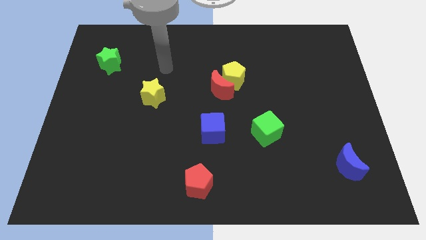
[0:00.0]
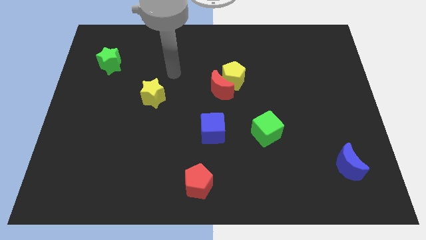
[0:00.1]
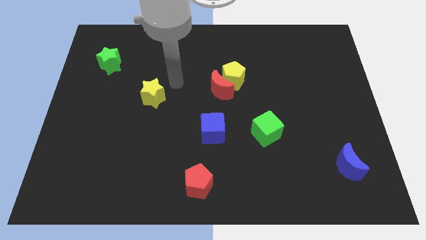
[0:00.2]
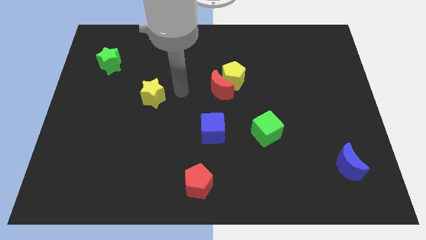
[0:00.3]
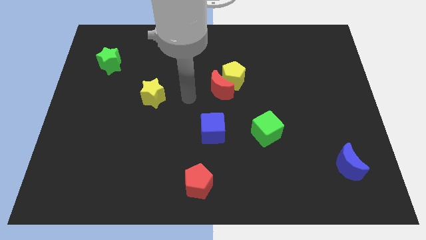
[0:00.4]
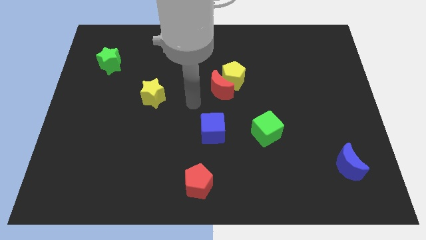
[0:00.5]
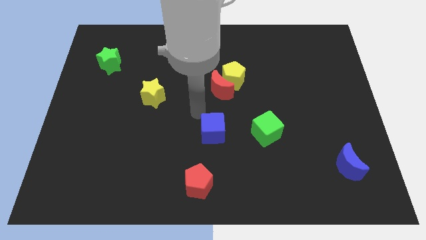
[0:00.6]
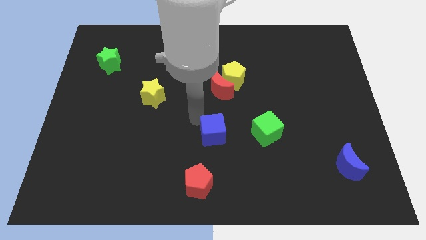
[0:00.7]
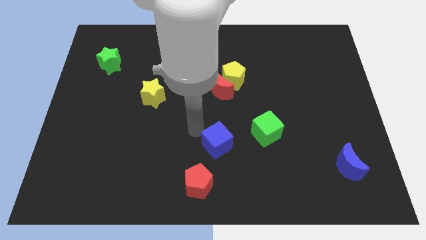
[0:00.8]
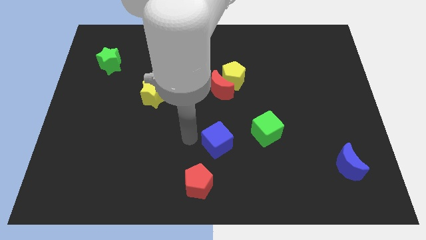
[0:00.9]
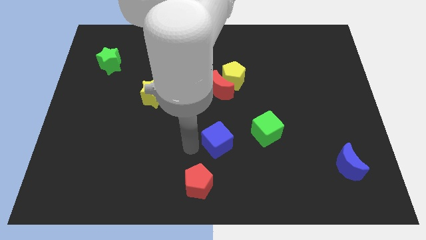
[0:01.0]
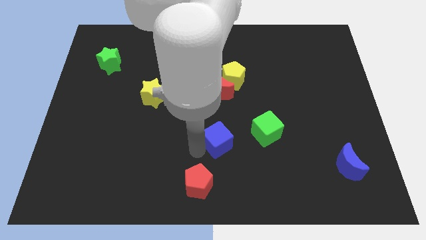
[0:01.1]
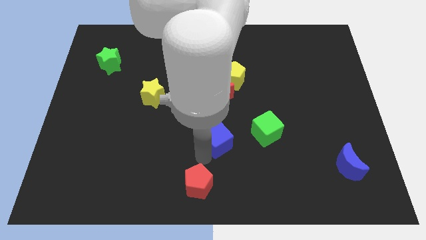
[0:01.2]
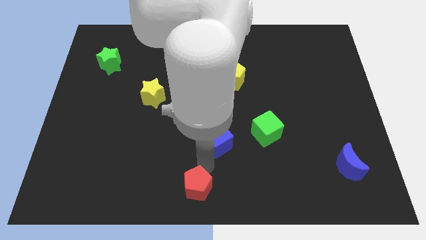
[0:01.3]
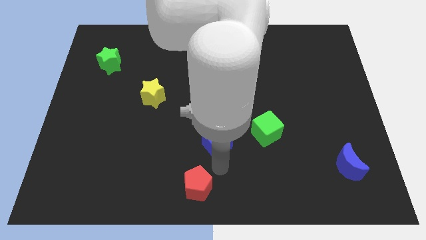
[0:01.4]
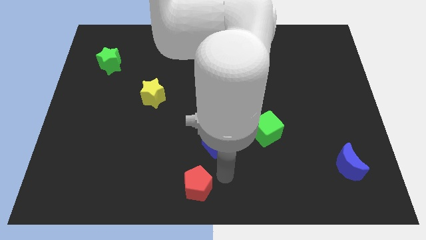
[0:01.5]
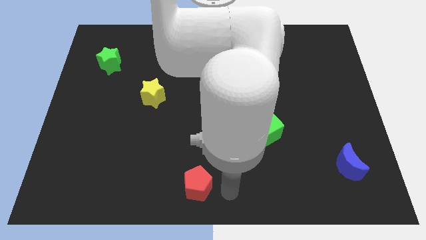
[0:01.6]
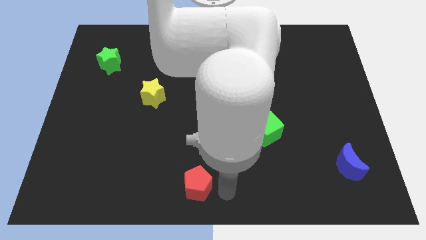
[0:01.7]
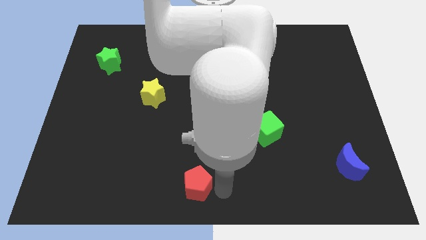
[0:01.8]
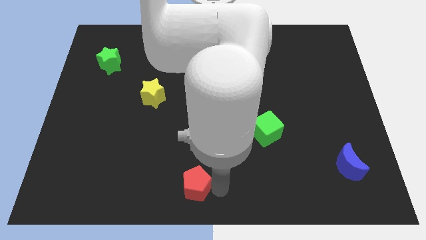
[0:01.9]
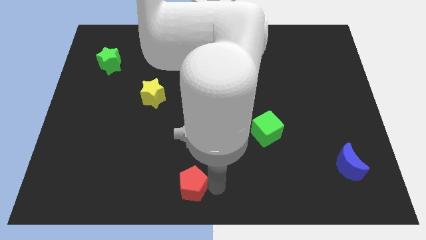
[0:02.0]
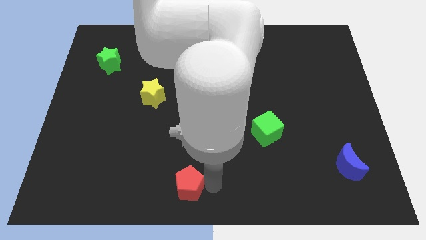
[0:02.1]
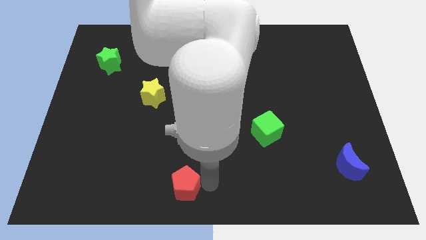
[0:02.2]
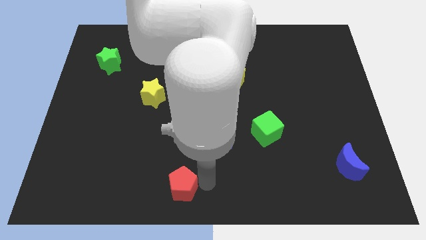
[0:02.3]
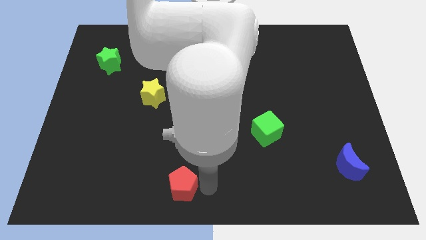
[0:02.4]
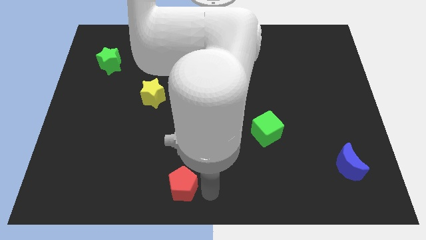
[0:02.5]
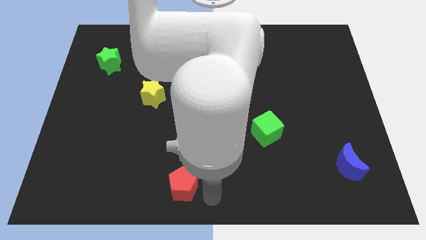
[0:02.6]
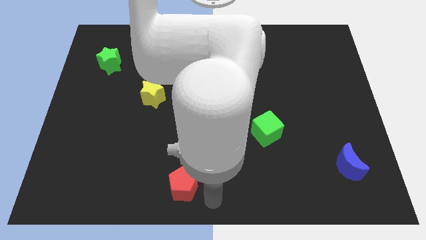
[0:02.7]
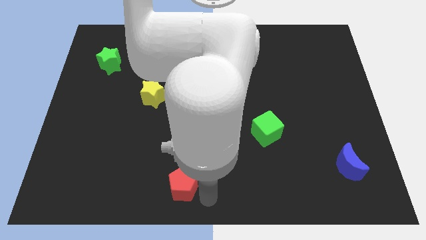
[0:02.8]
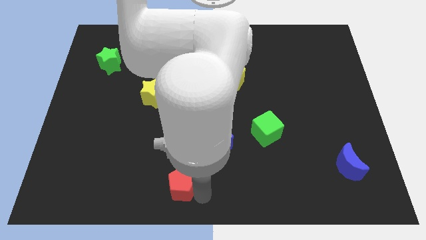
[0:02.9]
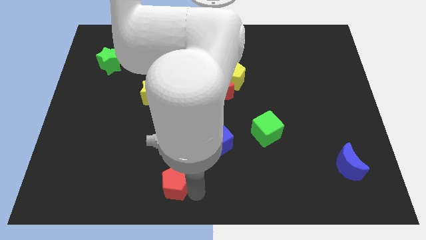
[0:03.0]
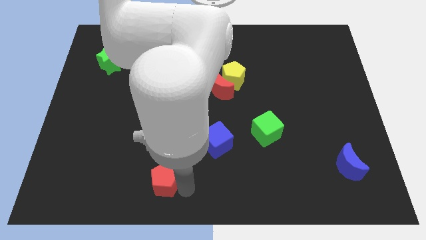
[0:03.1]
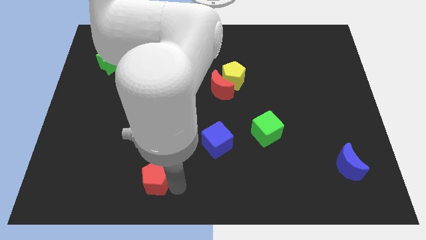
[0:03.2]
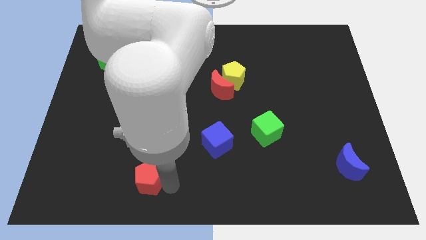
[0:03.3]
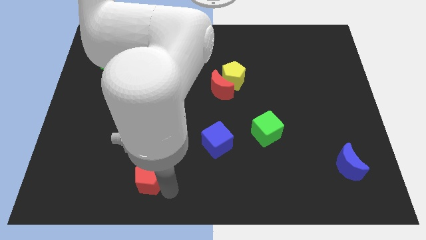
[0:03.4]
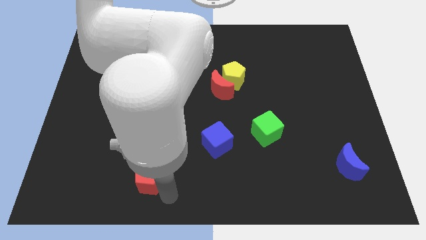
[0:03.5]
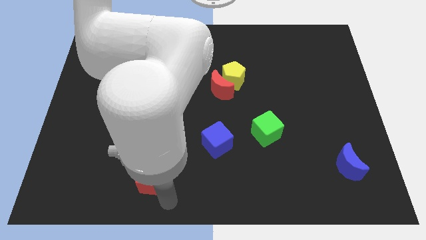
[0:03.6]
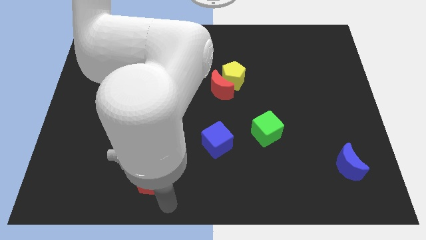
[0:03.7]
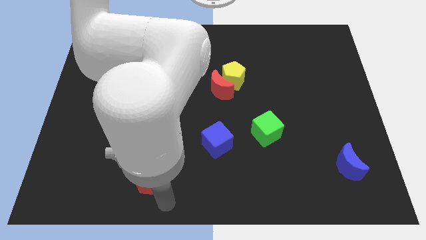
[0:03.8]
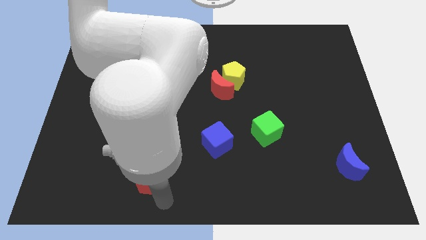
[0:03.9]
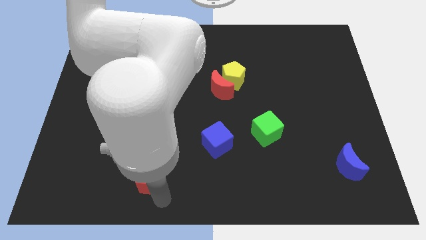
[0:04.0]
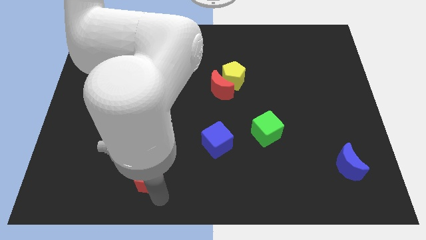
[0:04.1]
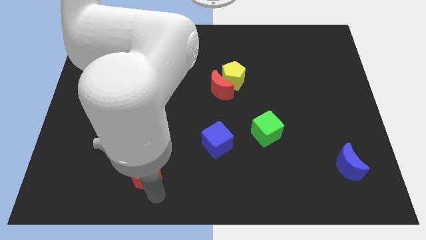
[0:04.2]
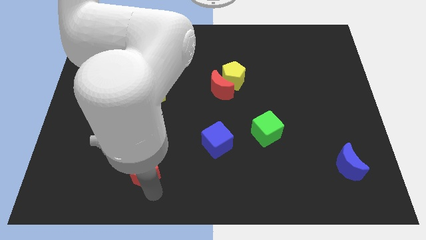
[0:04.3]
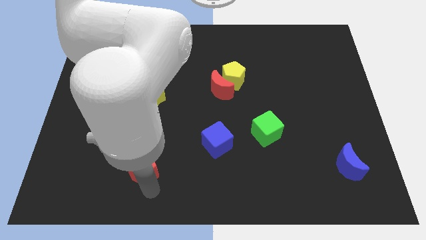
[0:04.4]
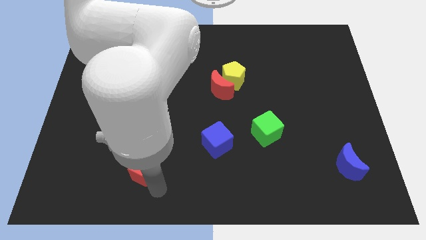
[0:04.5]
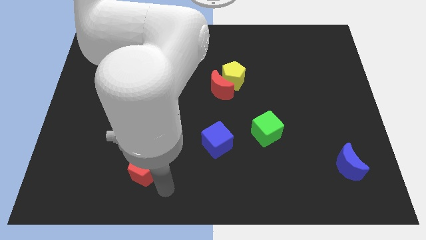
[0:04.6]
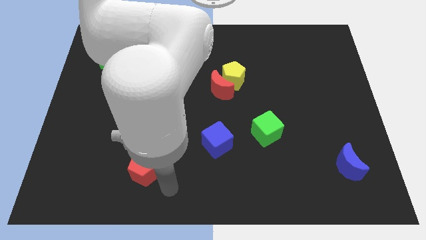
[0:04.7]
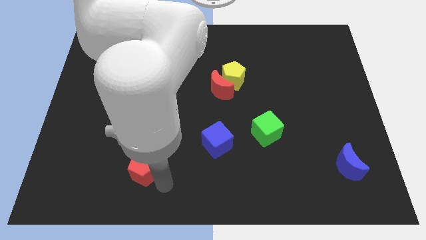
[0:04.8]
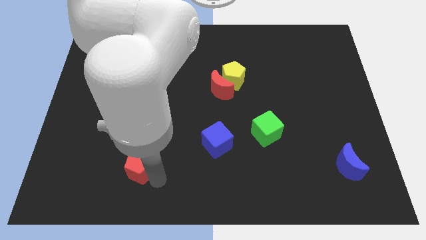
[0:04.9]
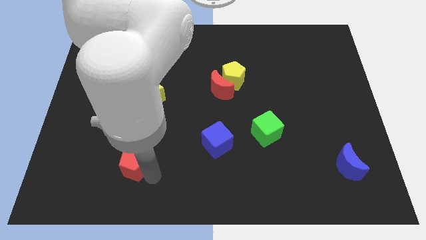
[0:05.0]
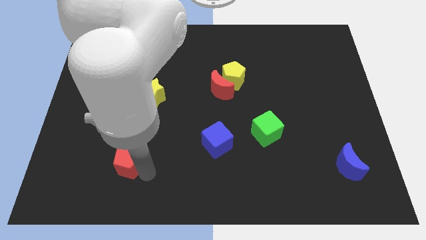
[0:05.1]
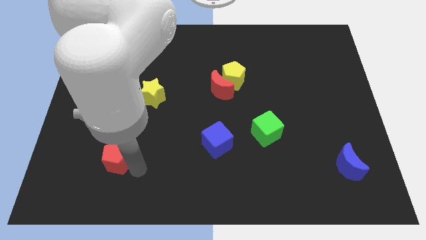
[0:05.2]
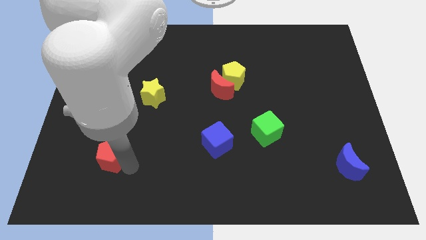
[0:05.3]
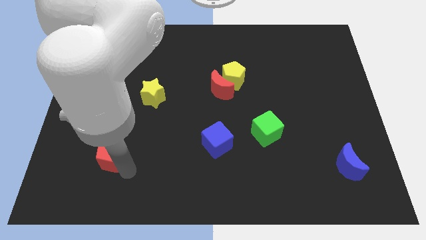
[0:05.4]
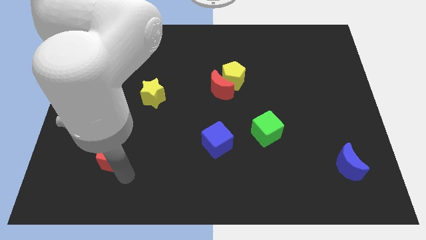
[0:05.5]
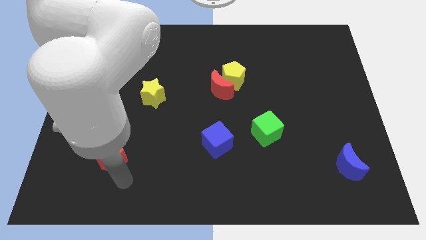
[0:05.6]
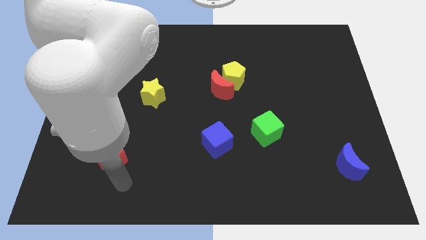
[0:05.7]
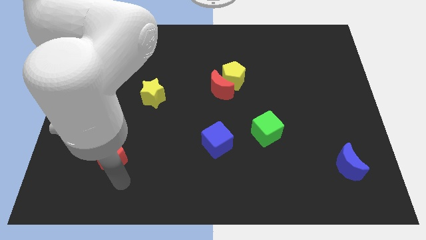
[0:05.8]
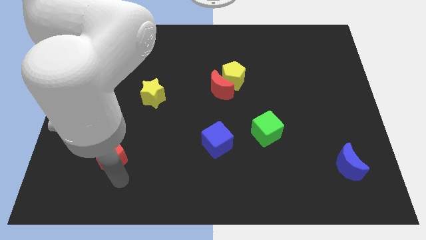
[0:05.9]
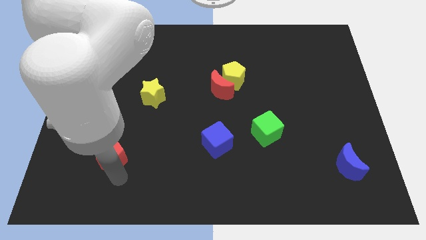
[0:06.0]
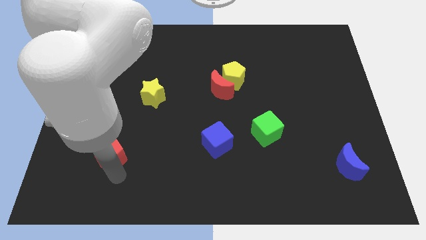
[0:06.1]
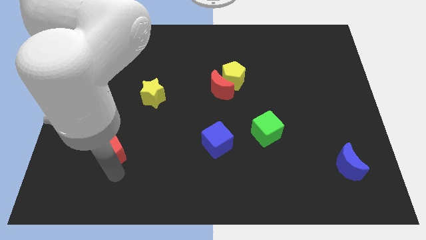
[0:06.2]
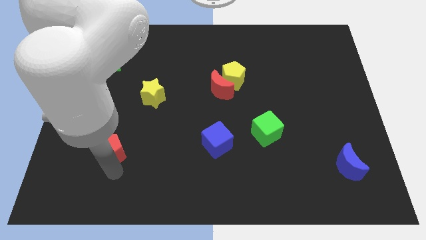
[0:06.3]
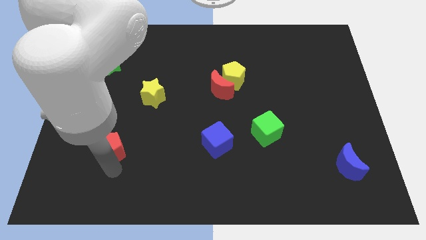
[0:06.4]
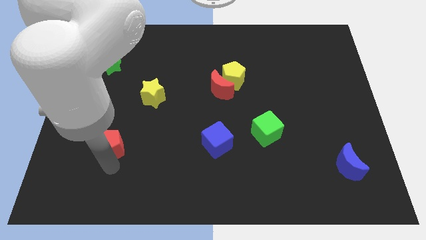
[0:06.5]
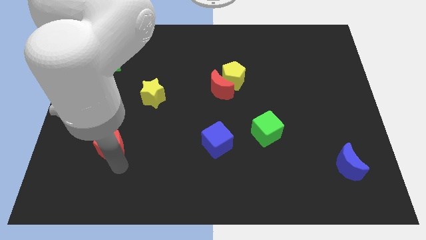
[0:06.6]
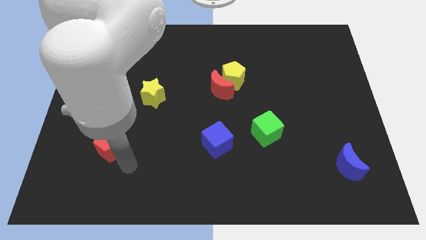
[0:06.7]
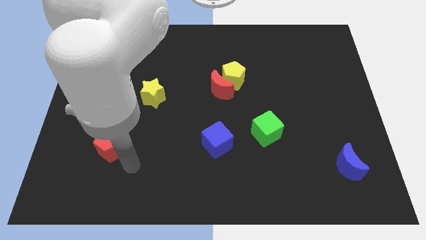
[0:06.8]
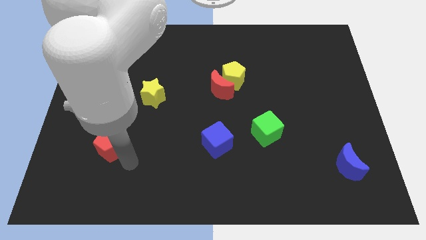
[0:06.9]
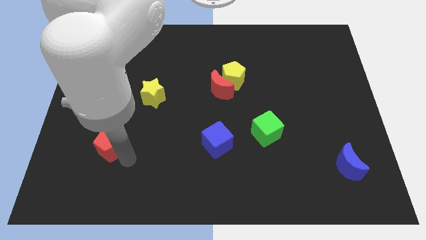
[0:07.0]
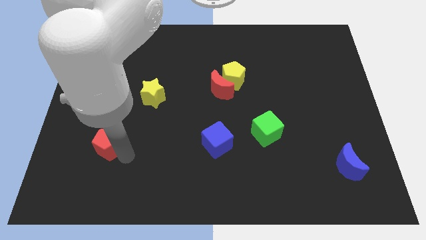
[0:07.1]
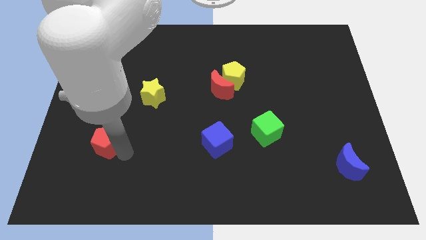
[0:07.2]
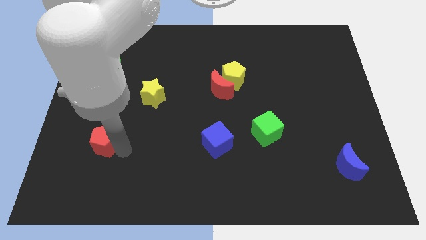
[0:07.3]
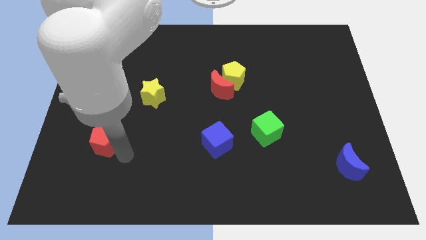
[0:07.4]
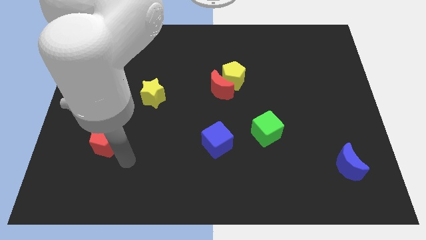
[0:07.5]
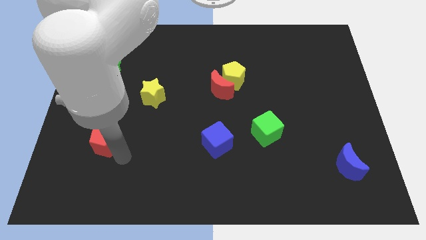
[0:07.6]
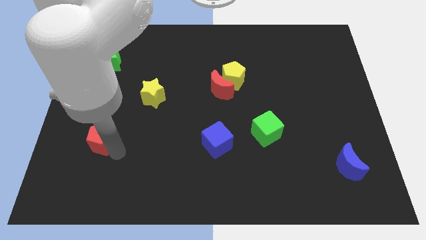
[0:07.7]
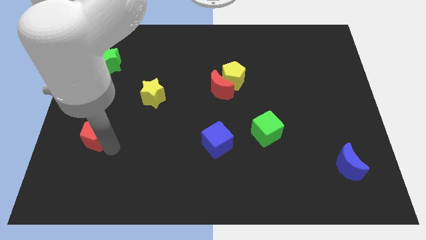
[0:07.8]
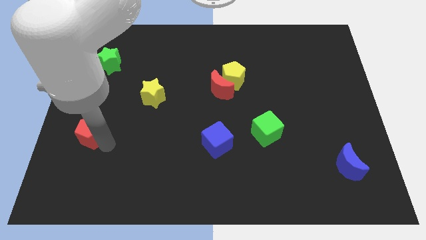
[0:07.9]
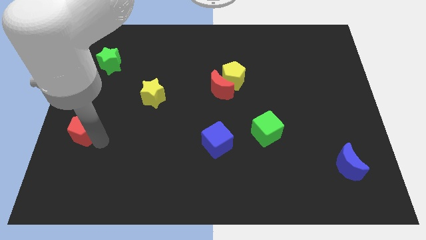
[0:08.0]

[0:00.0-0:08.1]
slide the red pentagon to the center left
